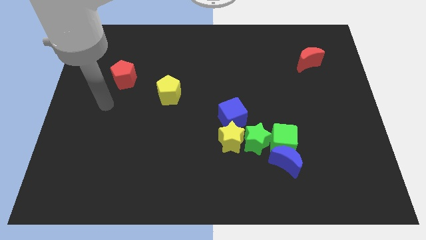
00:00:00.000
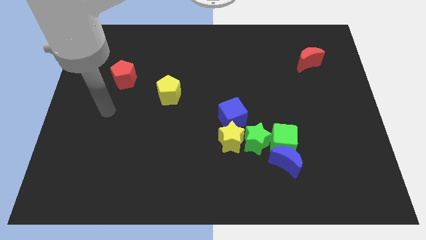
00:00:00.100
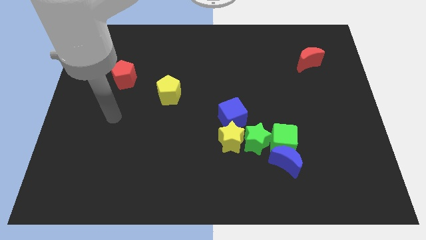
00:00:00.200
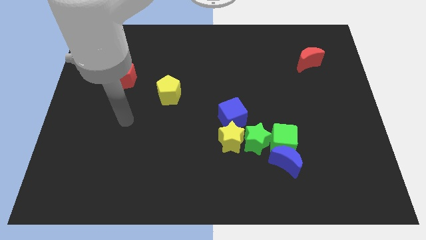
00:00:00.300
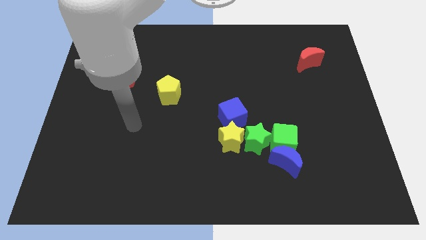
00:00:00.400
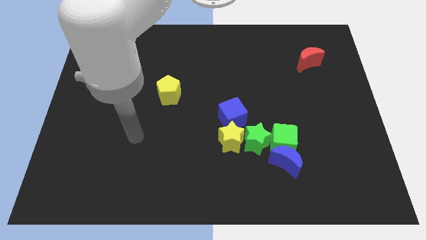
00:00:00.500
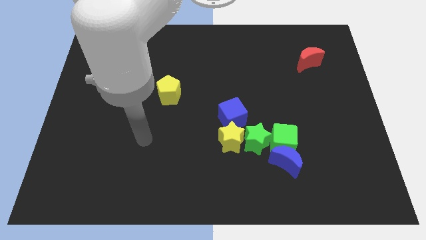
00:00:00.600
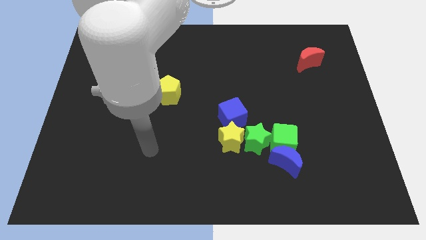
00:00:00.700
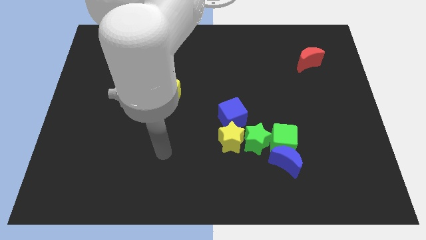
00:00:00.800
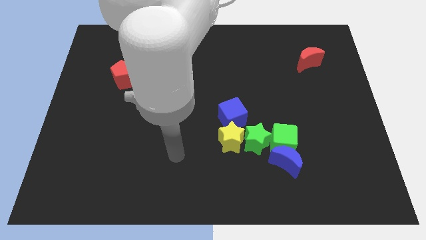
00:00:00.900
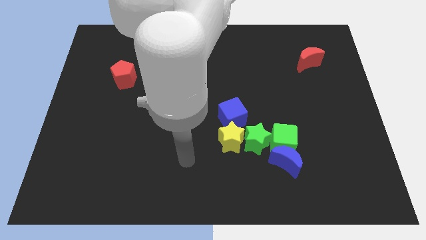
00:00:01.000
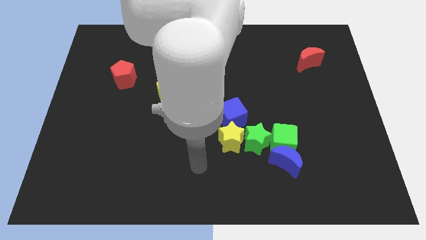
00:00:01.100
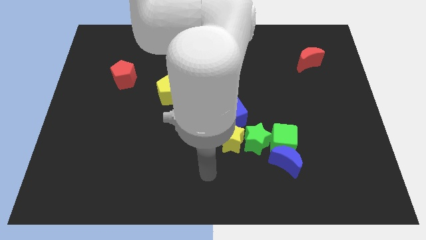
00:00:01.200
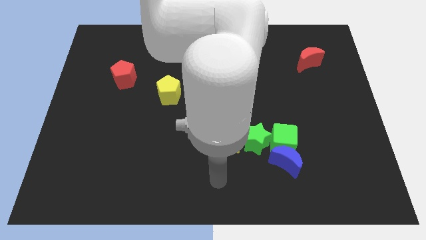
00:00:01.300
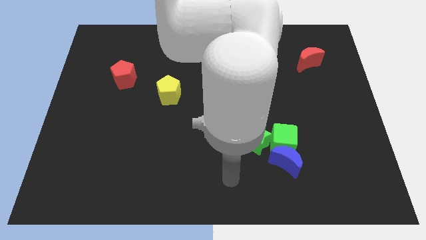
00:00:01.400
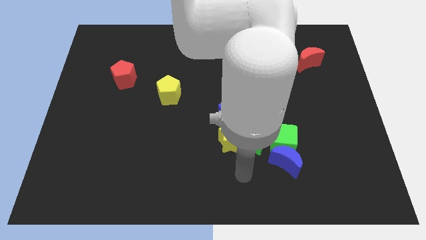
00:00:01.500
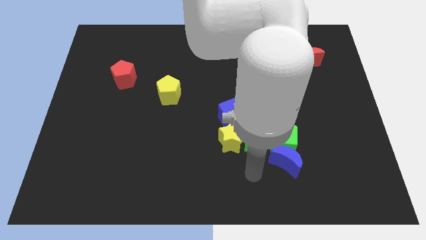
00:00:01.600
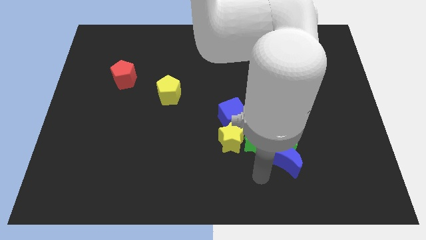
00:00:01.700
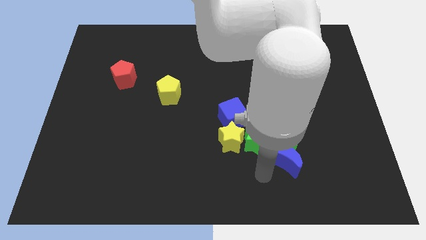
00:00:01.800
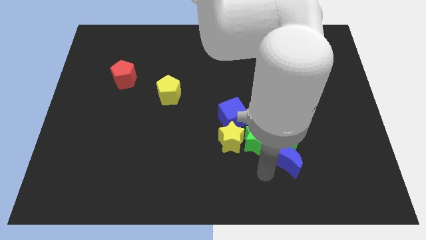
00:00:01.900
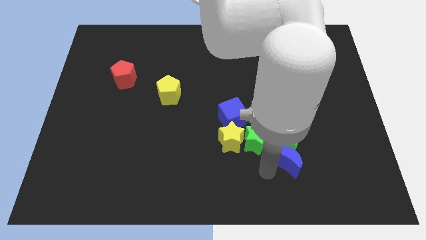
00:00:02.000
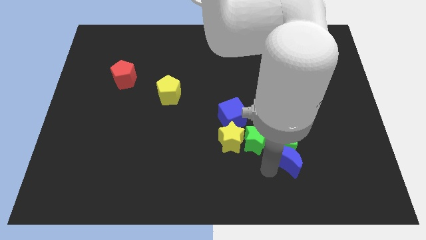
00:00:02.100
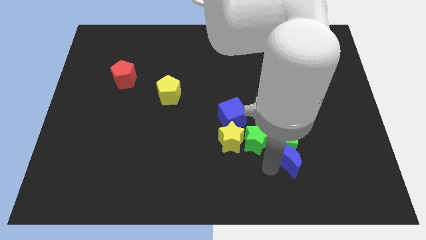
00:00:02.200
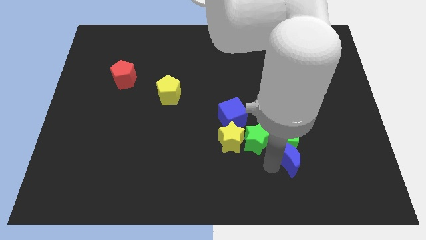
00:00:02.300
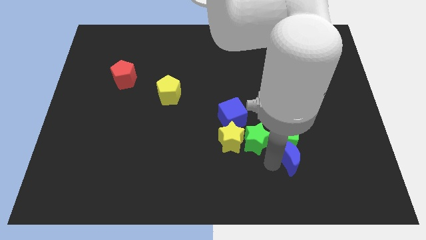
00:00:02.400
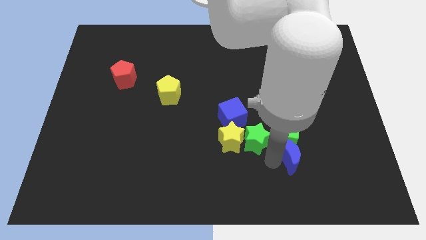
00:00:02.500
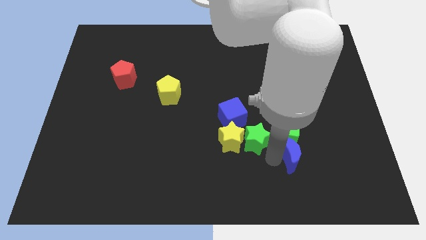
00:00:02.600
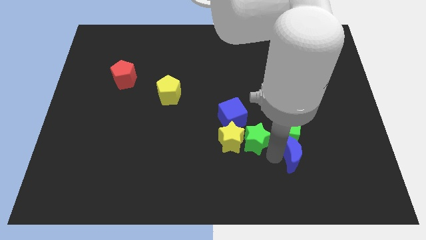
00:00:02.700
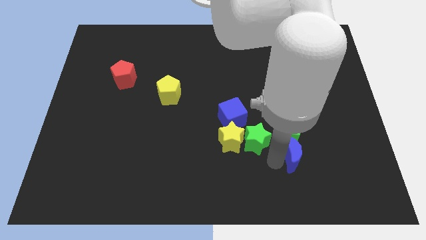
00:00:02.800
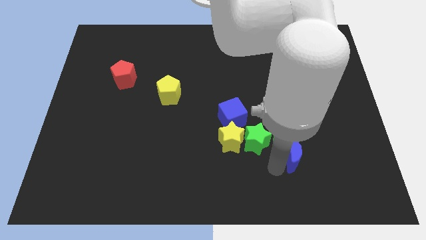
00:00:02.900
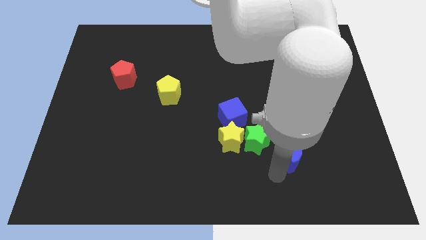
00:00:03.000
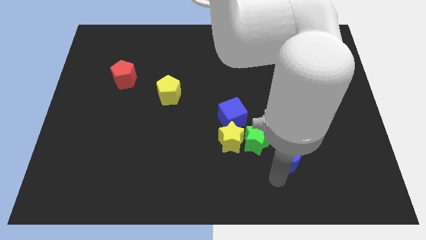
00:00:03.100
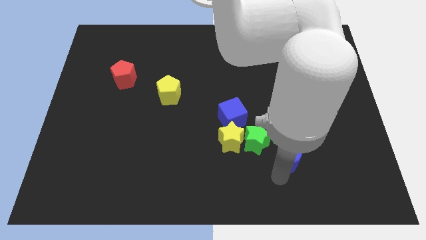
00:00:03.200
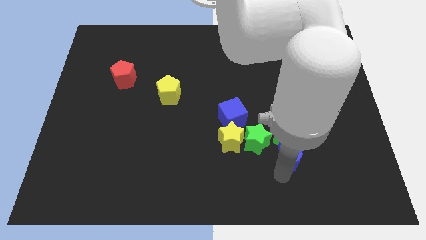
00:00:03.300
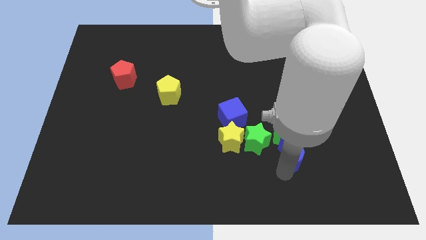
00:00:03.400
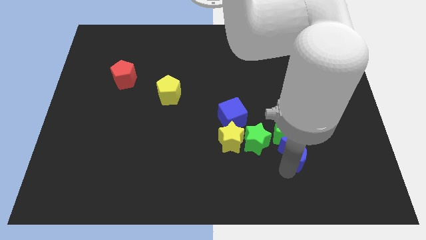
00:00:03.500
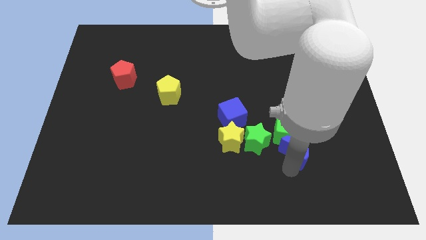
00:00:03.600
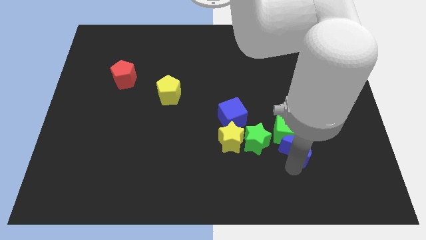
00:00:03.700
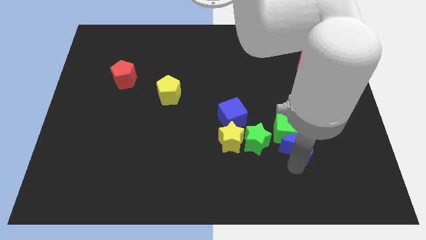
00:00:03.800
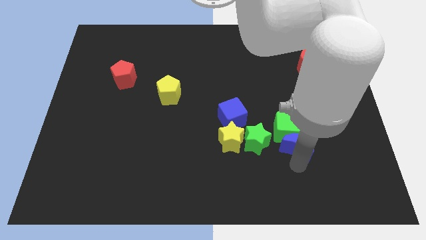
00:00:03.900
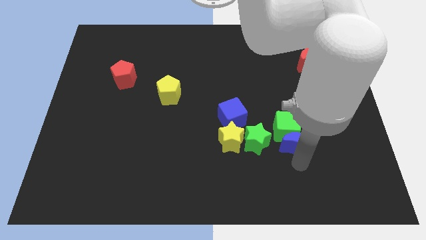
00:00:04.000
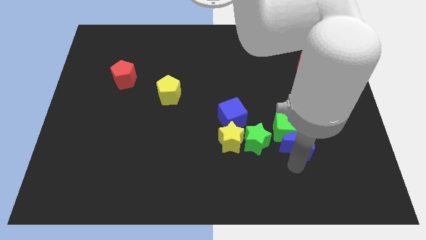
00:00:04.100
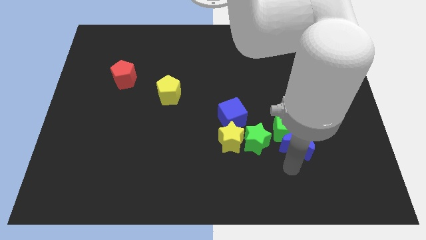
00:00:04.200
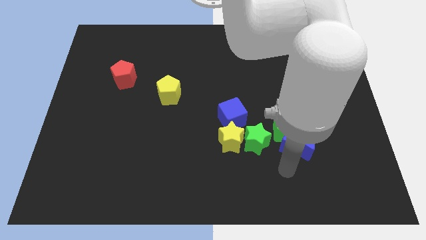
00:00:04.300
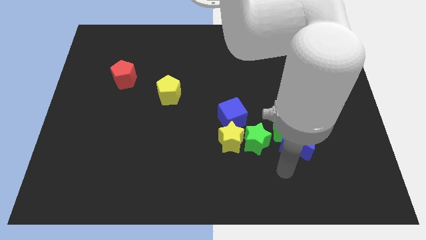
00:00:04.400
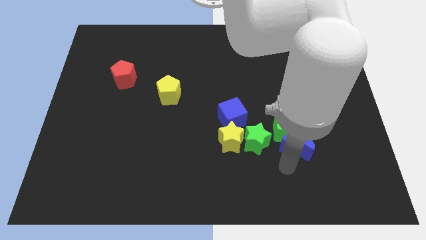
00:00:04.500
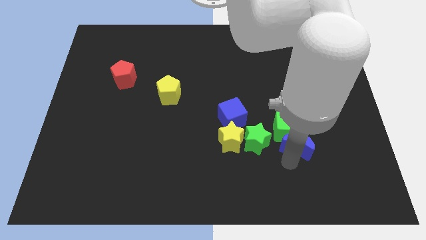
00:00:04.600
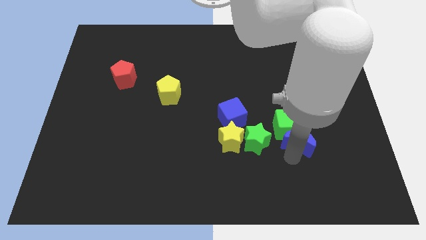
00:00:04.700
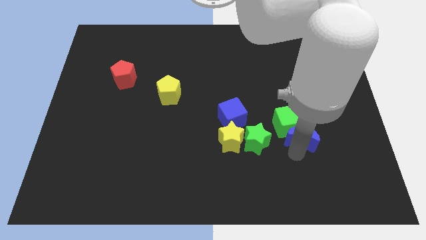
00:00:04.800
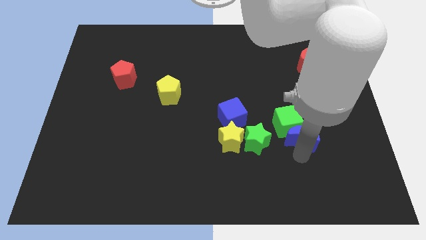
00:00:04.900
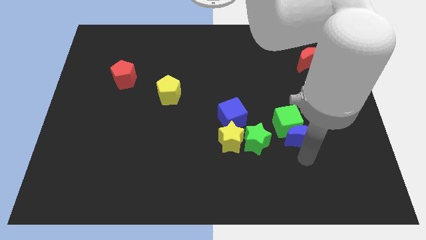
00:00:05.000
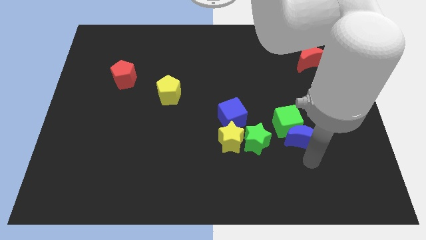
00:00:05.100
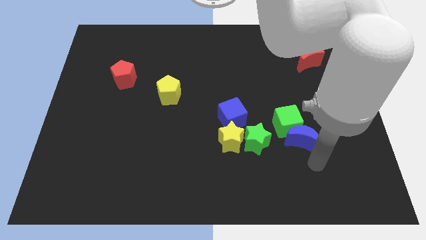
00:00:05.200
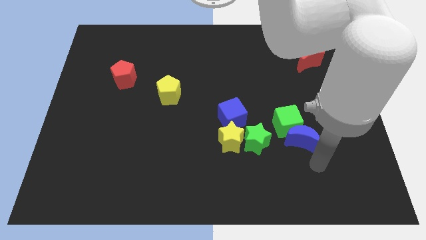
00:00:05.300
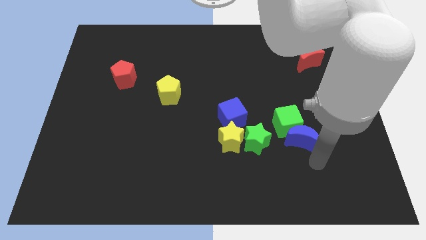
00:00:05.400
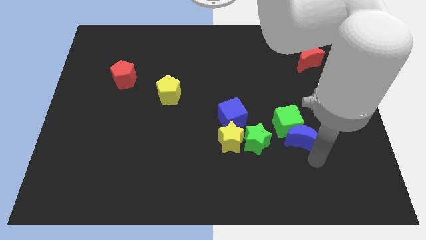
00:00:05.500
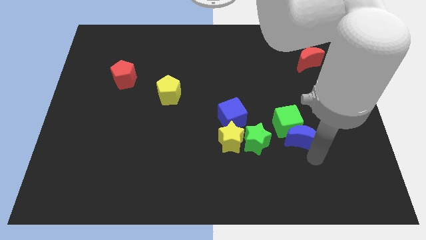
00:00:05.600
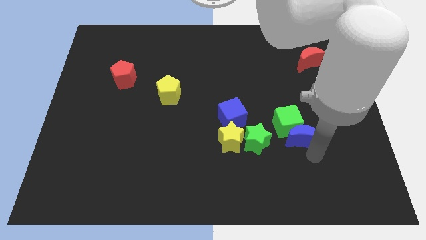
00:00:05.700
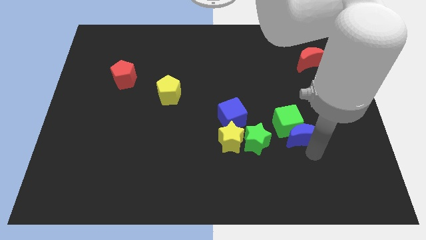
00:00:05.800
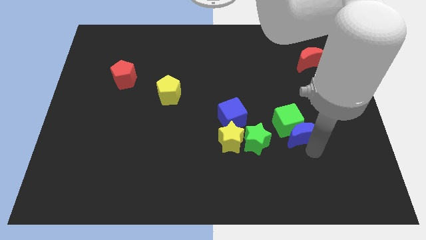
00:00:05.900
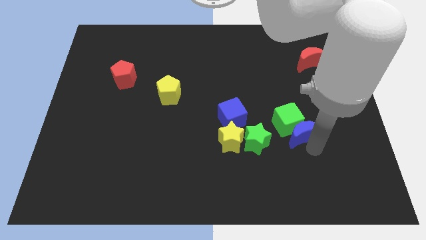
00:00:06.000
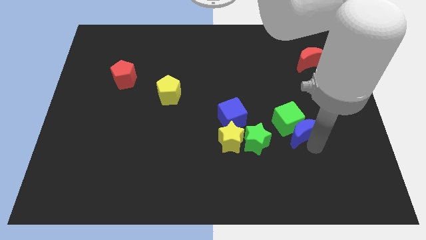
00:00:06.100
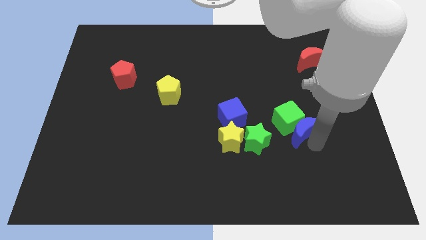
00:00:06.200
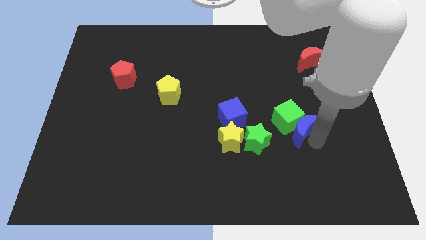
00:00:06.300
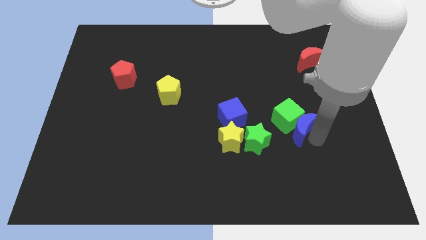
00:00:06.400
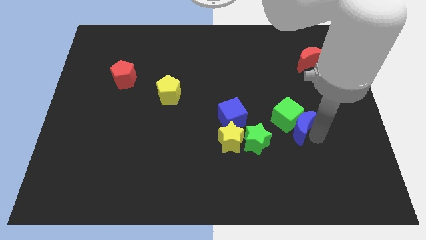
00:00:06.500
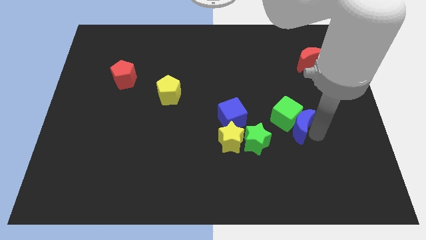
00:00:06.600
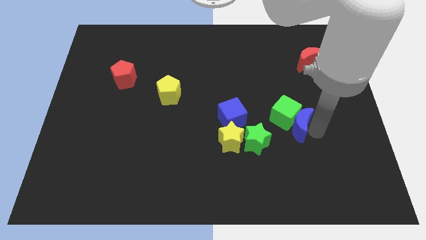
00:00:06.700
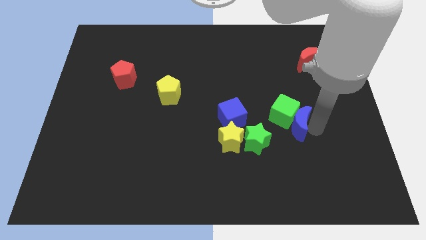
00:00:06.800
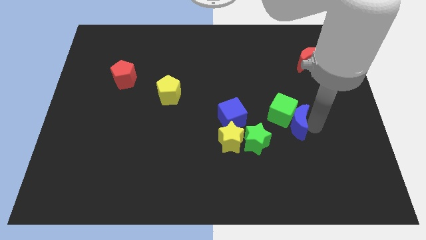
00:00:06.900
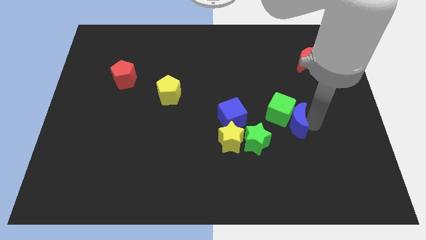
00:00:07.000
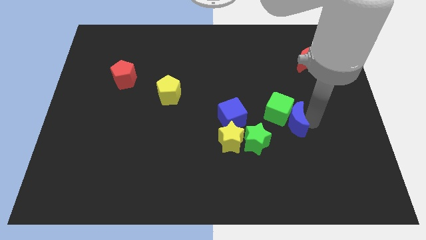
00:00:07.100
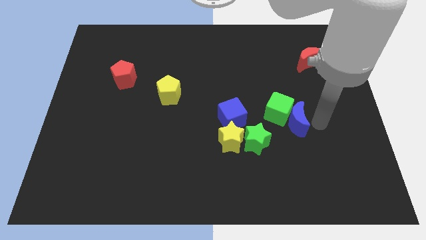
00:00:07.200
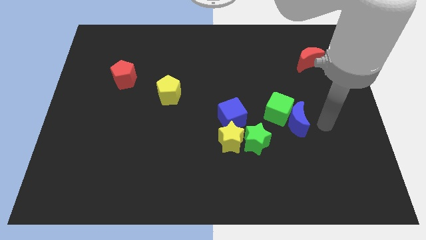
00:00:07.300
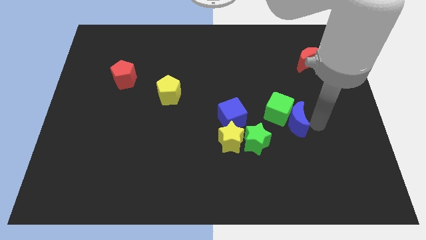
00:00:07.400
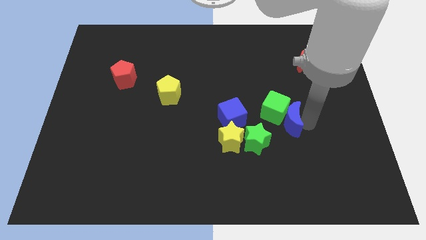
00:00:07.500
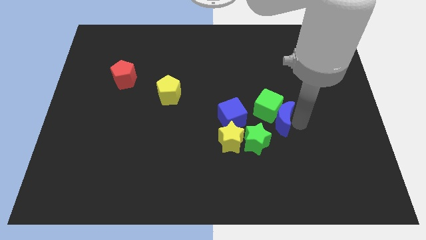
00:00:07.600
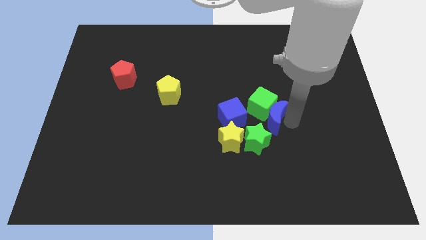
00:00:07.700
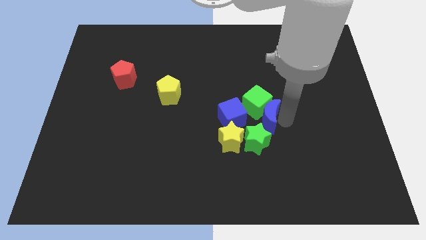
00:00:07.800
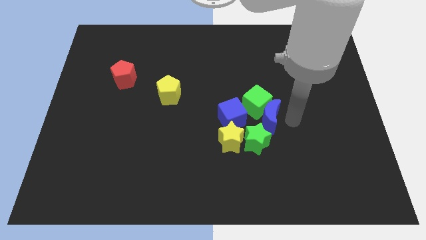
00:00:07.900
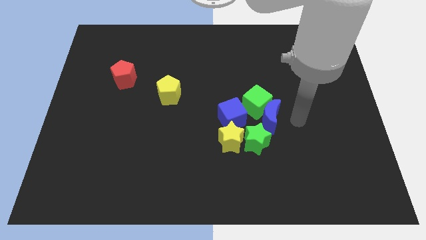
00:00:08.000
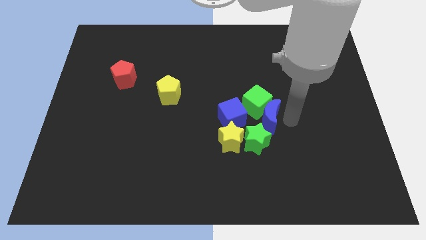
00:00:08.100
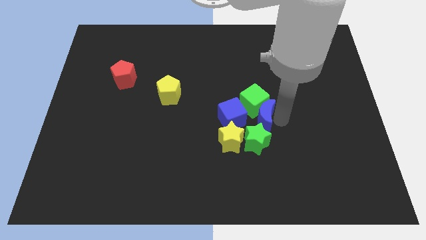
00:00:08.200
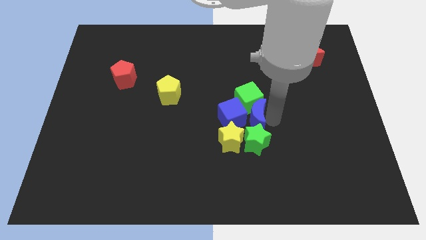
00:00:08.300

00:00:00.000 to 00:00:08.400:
slide the blue moon towards the blue cube
